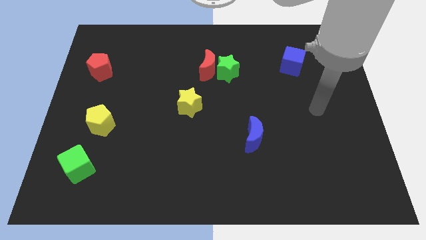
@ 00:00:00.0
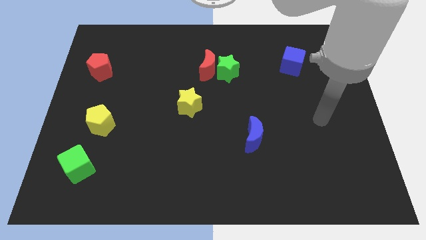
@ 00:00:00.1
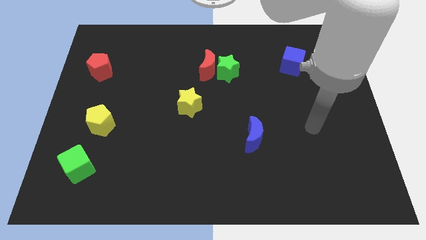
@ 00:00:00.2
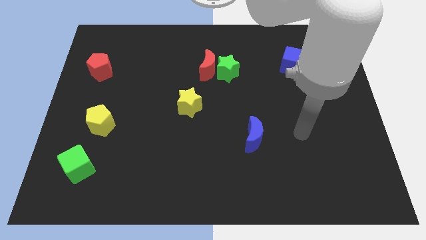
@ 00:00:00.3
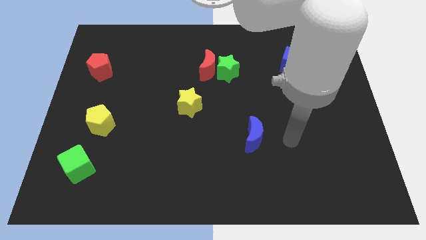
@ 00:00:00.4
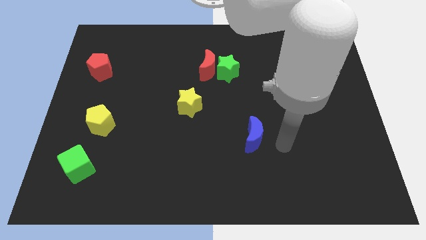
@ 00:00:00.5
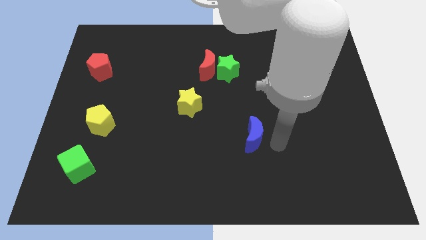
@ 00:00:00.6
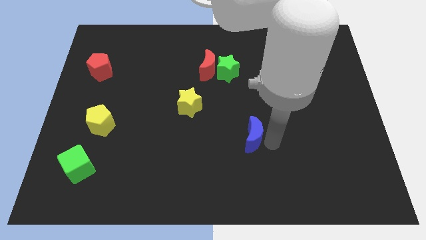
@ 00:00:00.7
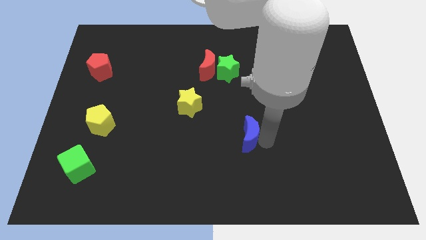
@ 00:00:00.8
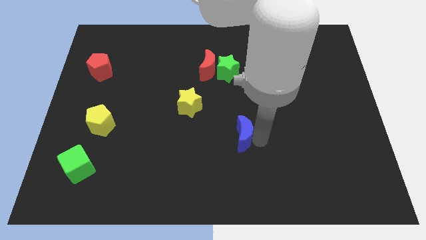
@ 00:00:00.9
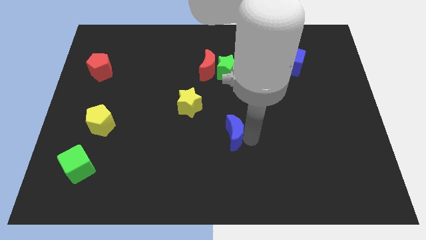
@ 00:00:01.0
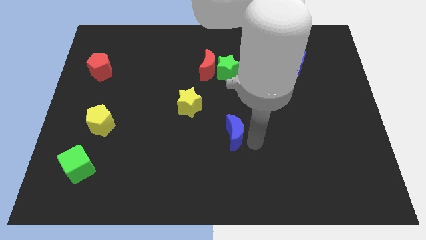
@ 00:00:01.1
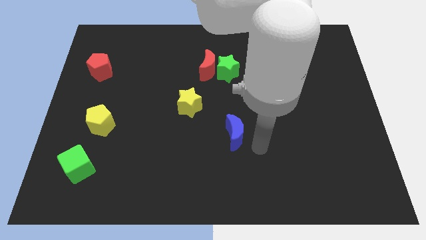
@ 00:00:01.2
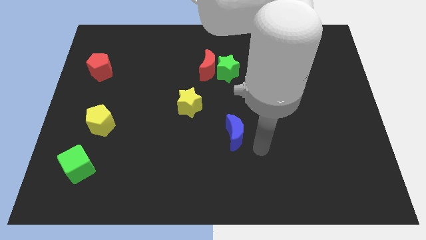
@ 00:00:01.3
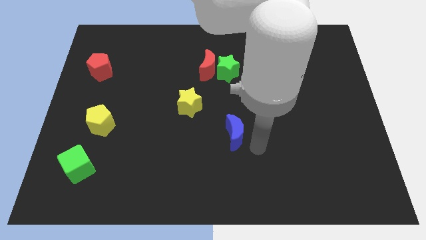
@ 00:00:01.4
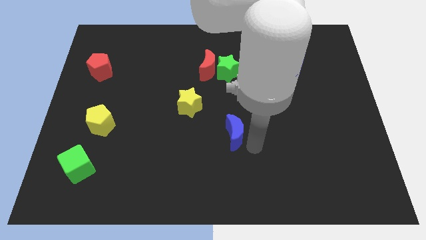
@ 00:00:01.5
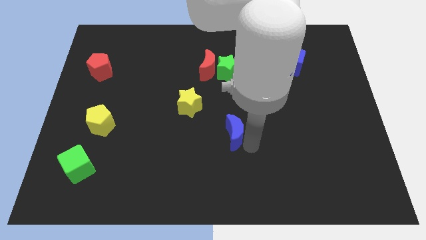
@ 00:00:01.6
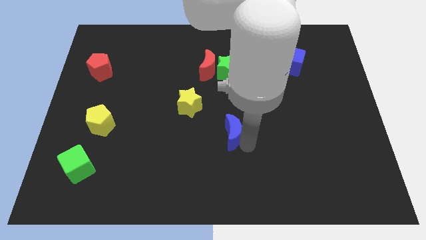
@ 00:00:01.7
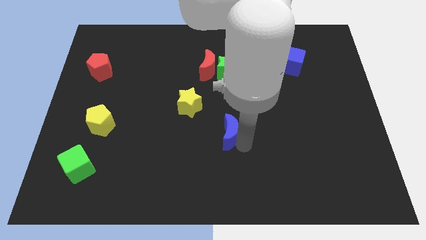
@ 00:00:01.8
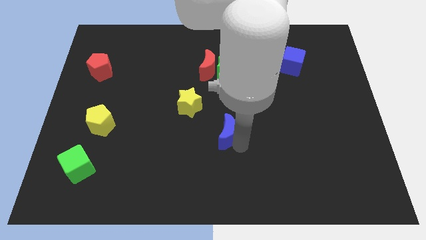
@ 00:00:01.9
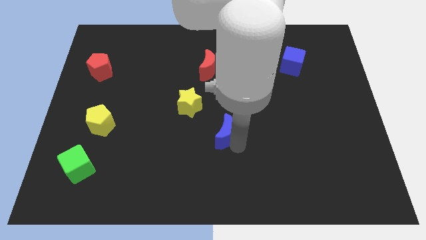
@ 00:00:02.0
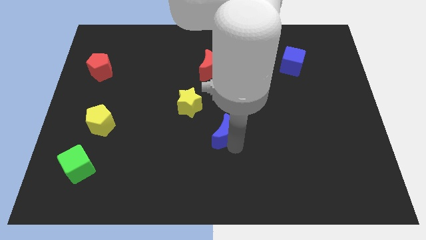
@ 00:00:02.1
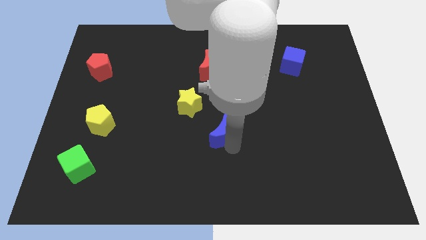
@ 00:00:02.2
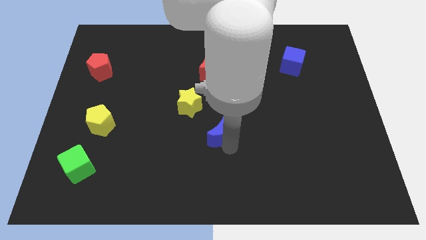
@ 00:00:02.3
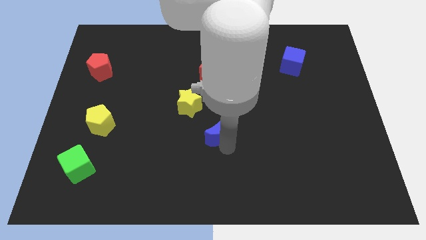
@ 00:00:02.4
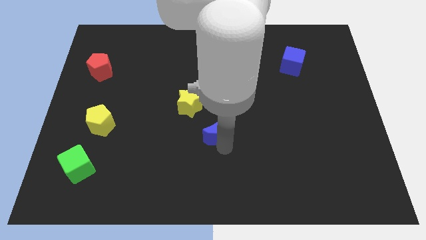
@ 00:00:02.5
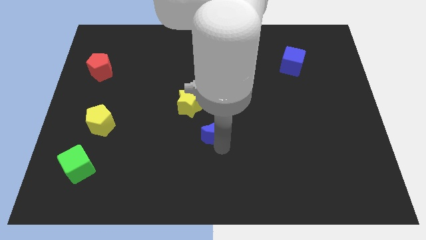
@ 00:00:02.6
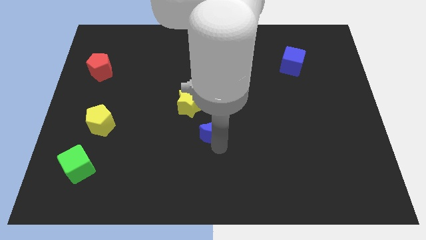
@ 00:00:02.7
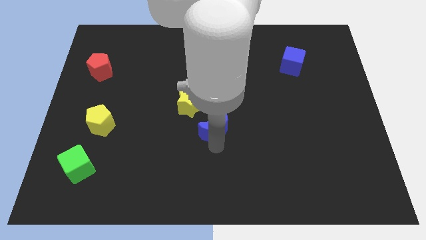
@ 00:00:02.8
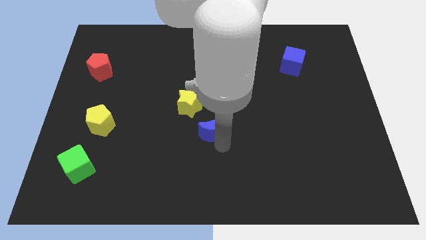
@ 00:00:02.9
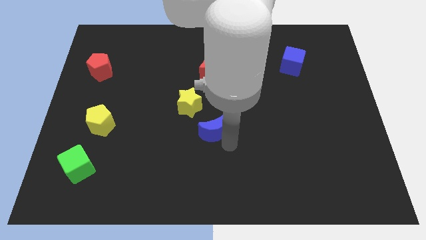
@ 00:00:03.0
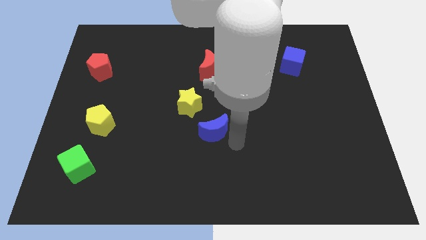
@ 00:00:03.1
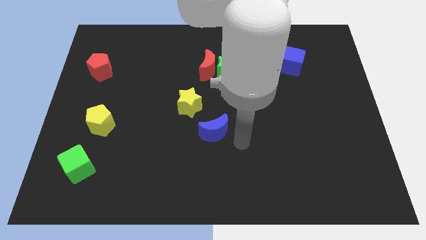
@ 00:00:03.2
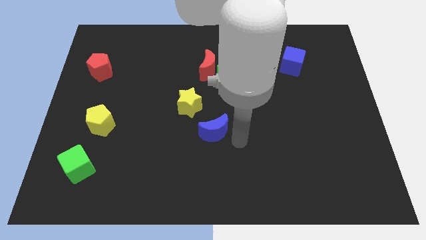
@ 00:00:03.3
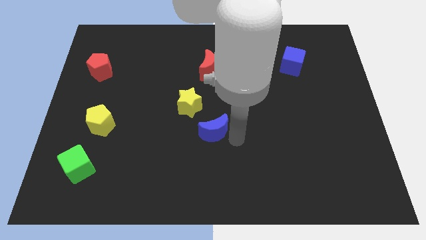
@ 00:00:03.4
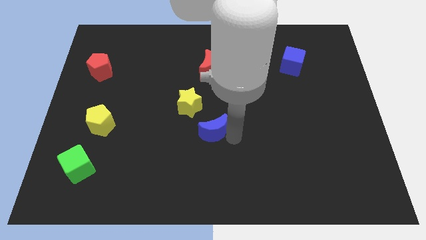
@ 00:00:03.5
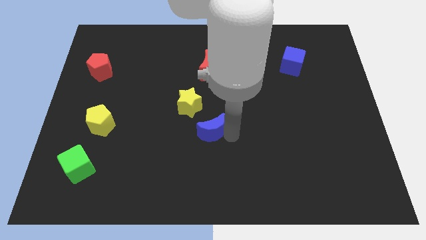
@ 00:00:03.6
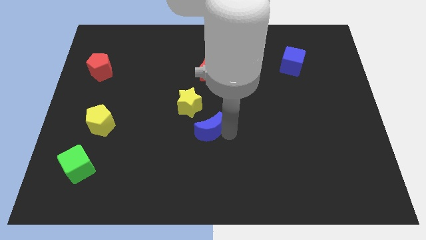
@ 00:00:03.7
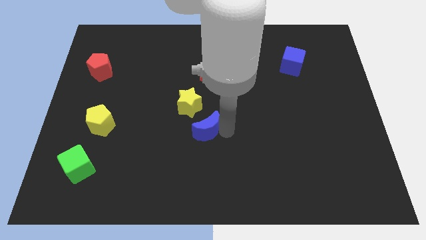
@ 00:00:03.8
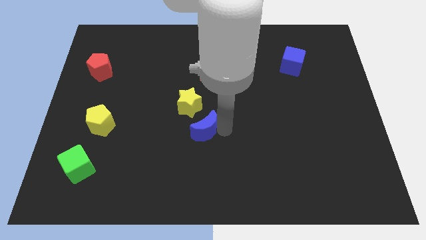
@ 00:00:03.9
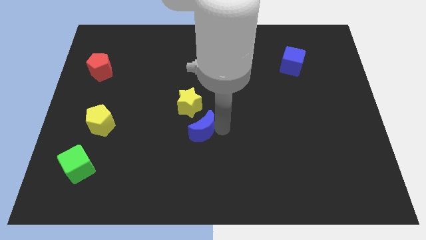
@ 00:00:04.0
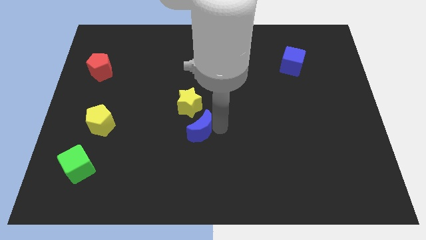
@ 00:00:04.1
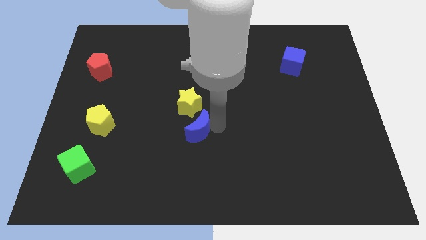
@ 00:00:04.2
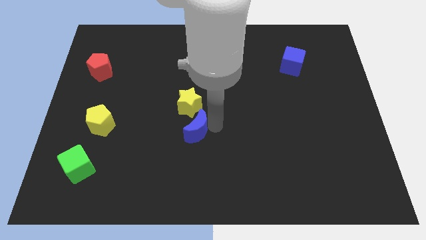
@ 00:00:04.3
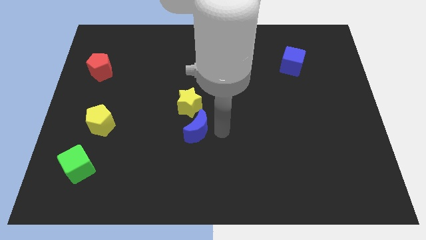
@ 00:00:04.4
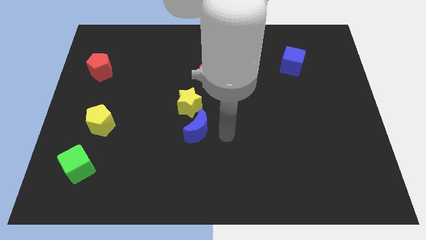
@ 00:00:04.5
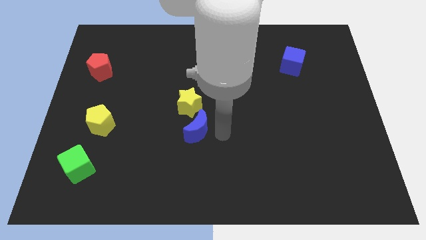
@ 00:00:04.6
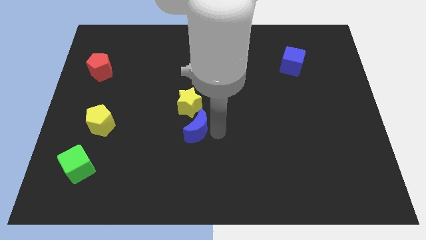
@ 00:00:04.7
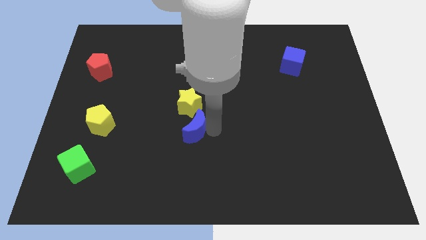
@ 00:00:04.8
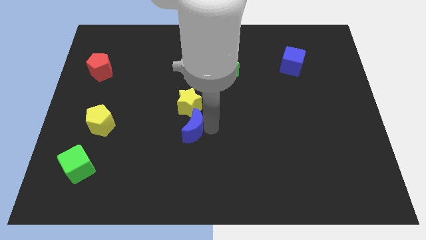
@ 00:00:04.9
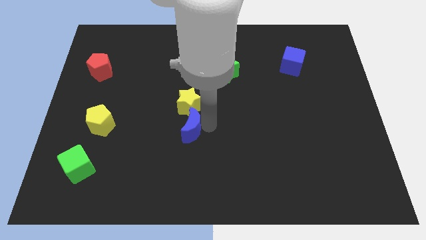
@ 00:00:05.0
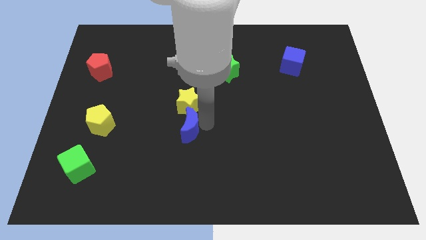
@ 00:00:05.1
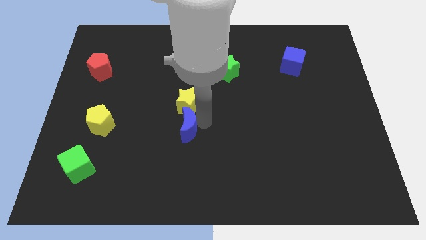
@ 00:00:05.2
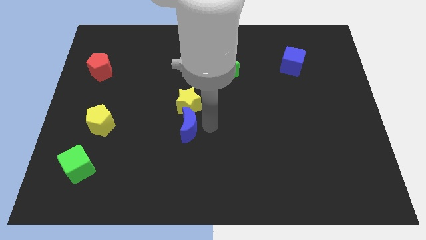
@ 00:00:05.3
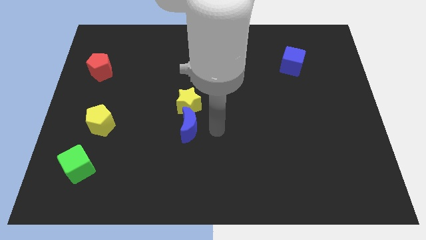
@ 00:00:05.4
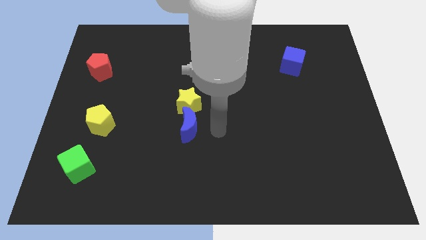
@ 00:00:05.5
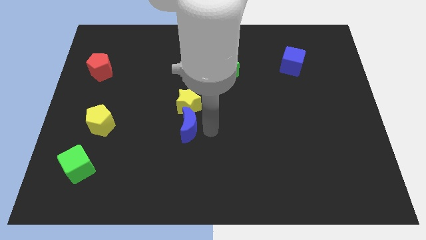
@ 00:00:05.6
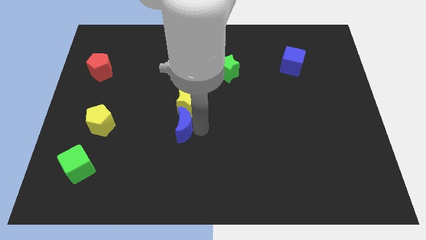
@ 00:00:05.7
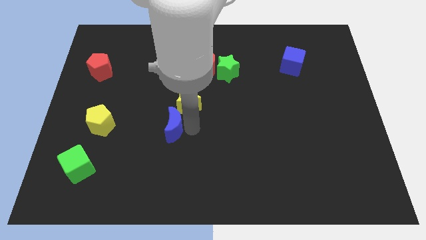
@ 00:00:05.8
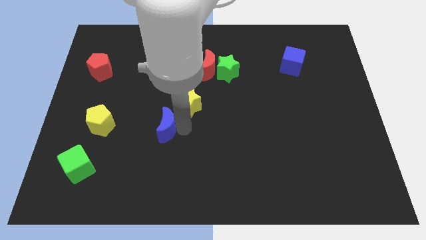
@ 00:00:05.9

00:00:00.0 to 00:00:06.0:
move the blue moon just right of the yellow pentagon

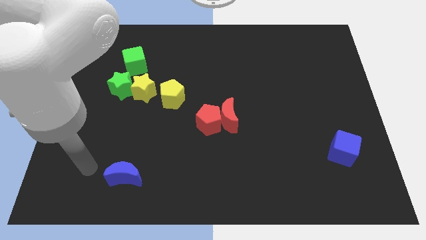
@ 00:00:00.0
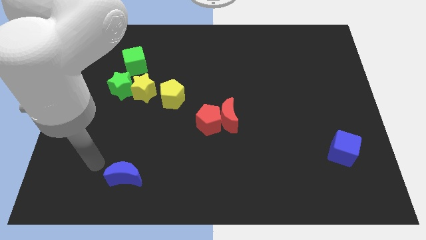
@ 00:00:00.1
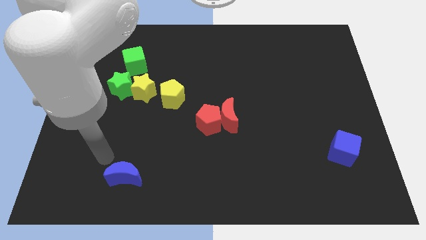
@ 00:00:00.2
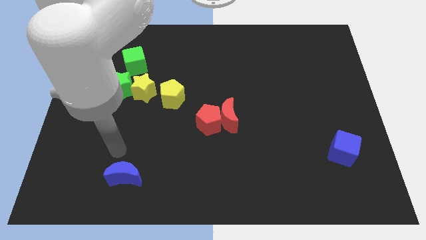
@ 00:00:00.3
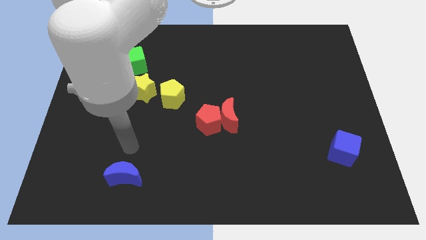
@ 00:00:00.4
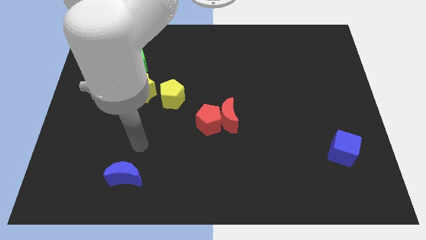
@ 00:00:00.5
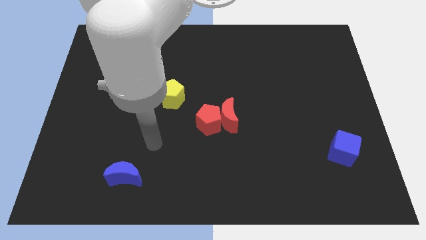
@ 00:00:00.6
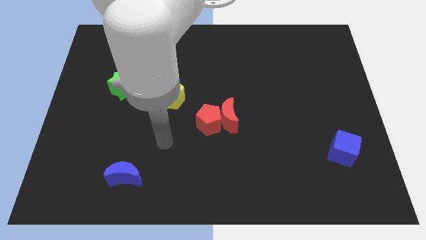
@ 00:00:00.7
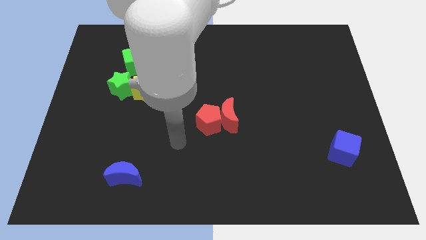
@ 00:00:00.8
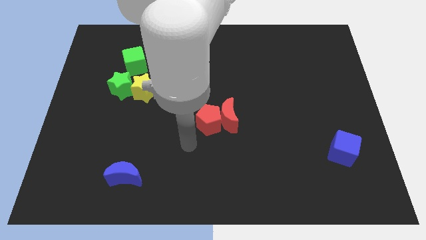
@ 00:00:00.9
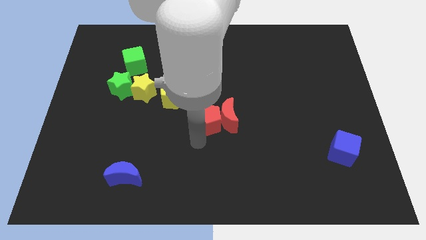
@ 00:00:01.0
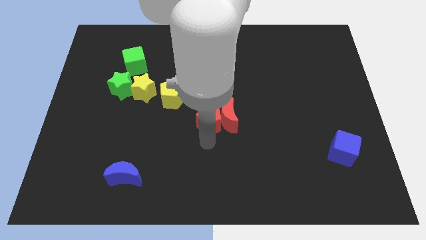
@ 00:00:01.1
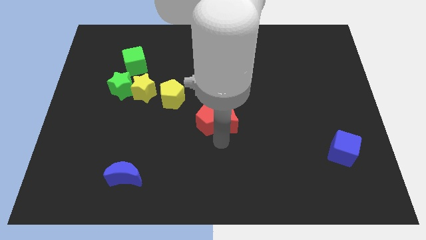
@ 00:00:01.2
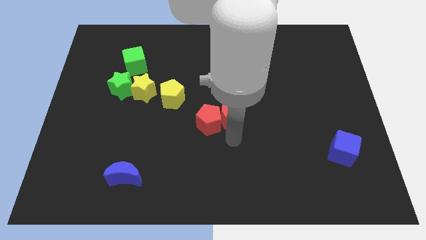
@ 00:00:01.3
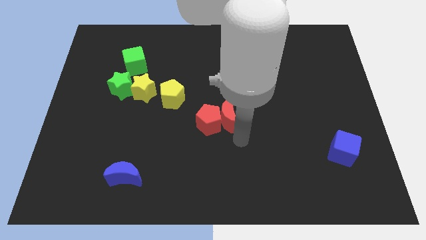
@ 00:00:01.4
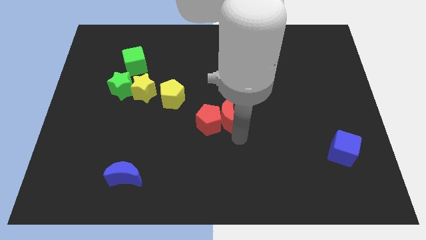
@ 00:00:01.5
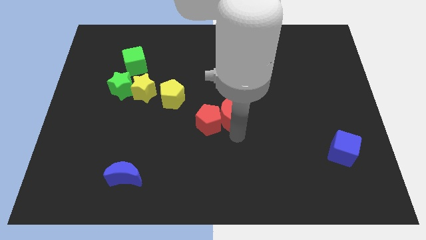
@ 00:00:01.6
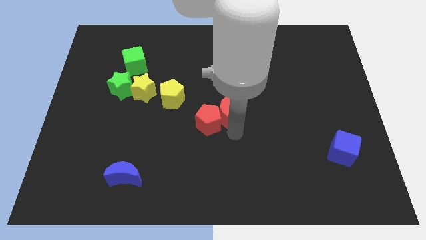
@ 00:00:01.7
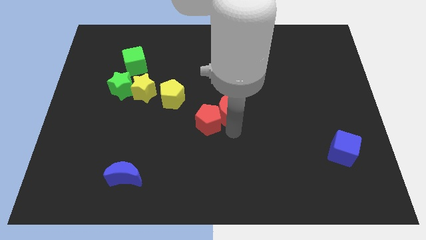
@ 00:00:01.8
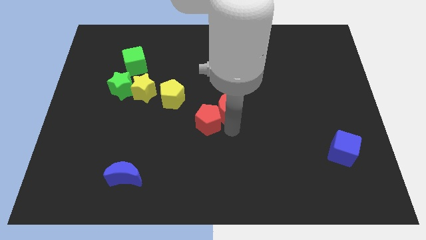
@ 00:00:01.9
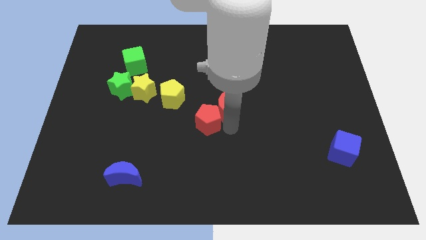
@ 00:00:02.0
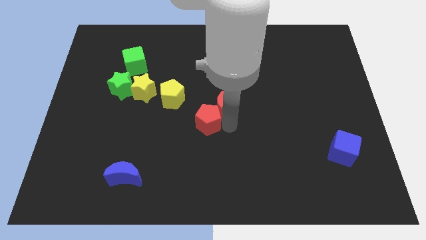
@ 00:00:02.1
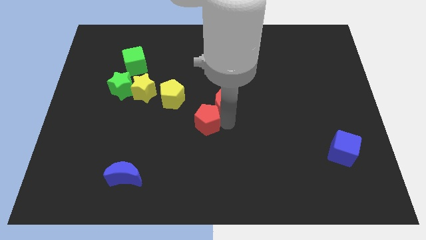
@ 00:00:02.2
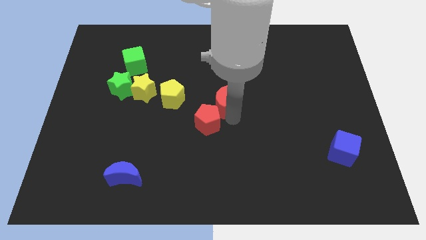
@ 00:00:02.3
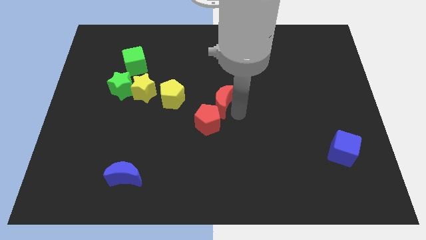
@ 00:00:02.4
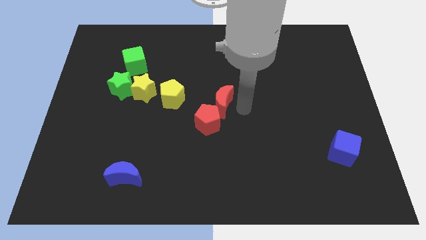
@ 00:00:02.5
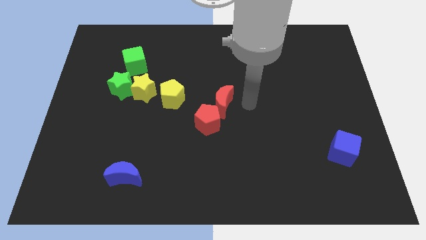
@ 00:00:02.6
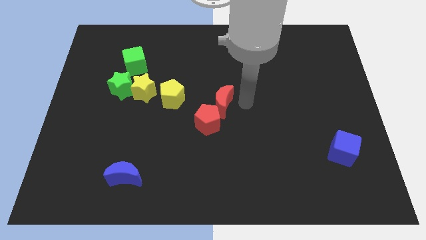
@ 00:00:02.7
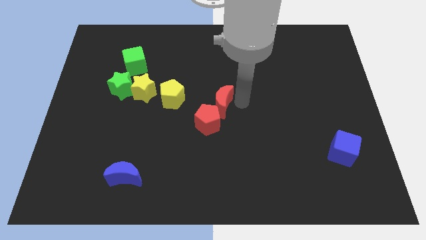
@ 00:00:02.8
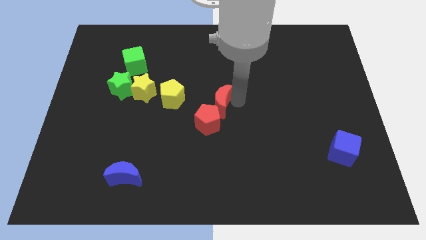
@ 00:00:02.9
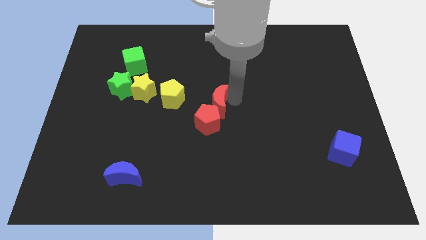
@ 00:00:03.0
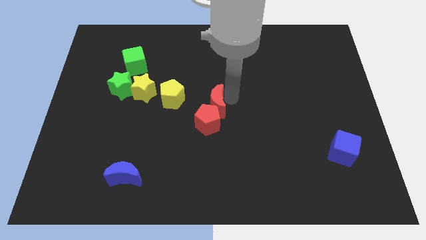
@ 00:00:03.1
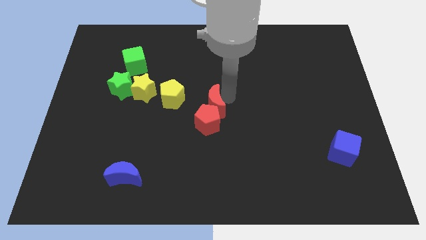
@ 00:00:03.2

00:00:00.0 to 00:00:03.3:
move the red moon to the top left side of the red pentagon
